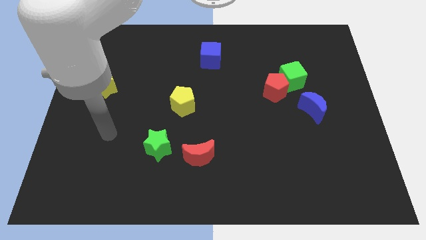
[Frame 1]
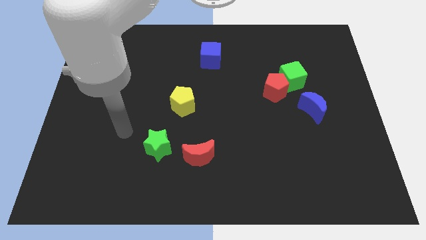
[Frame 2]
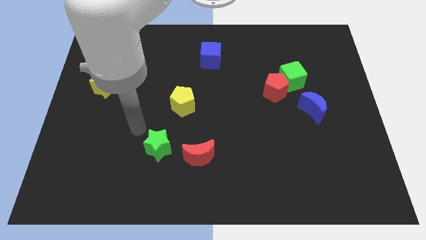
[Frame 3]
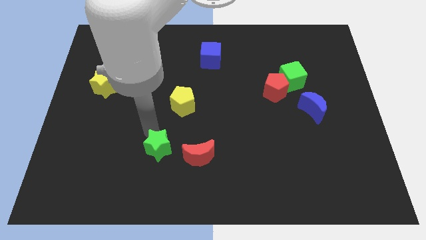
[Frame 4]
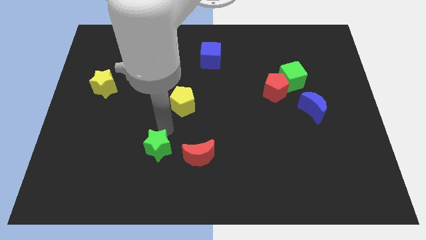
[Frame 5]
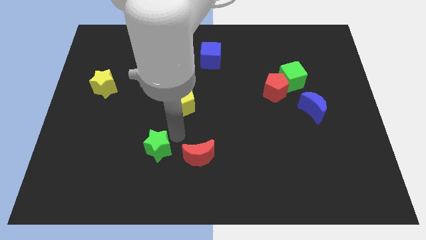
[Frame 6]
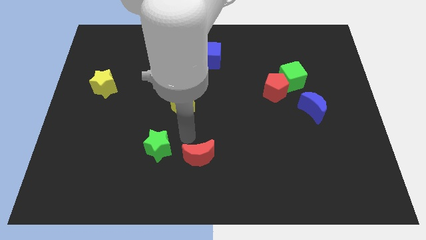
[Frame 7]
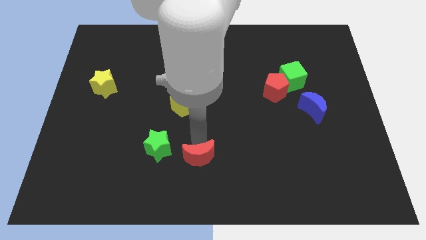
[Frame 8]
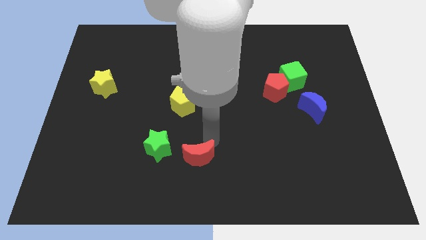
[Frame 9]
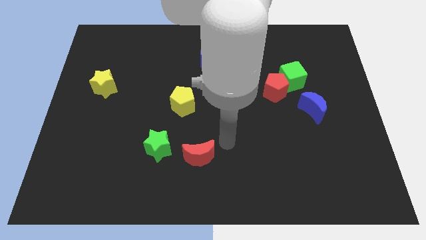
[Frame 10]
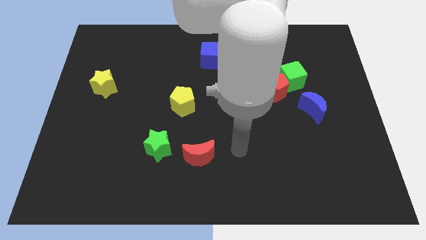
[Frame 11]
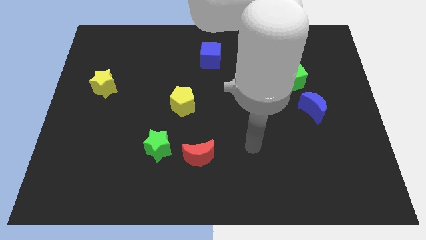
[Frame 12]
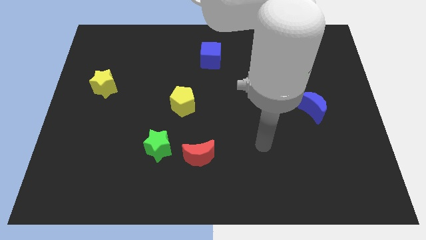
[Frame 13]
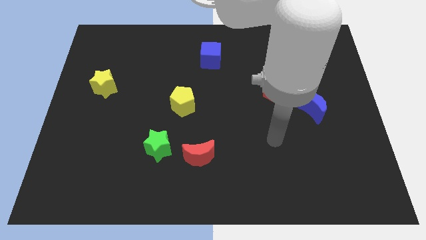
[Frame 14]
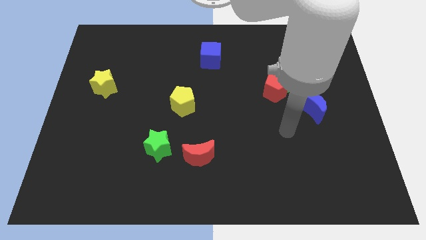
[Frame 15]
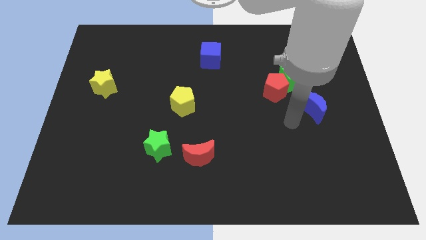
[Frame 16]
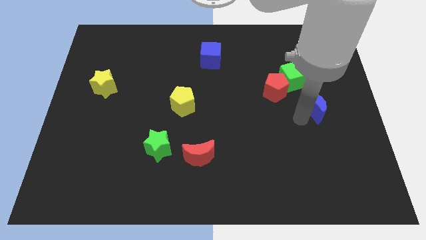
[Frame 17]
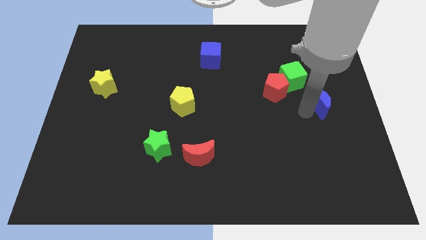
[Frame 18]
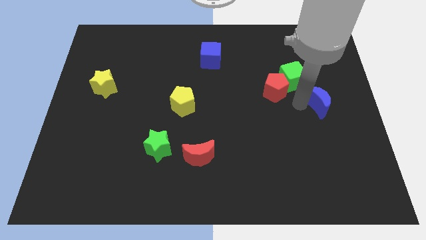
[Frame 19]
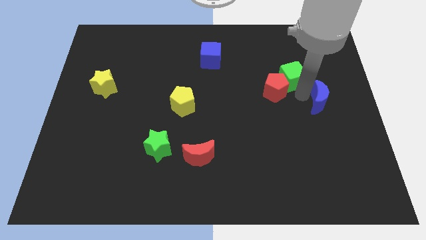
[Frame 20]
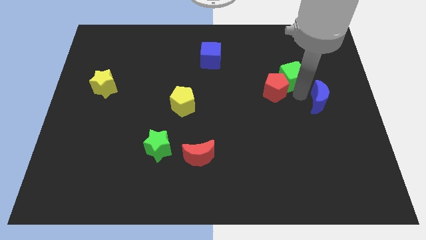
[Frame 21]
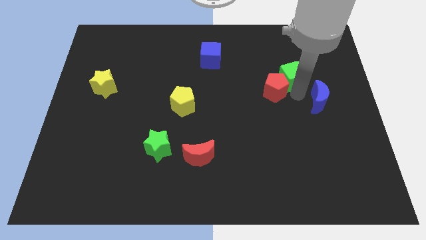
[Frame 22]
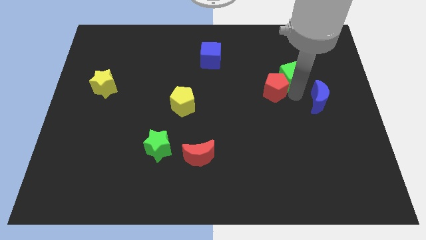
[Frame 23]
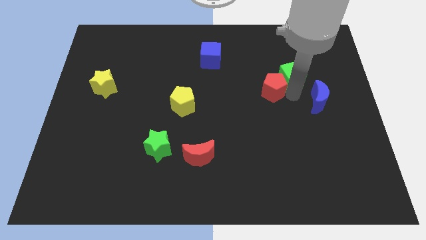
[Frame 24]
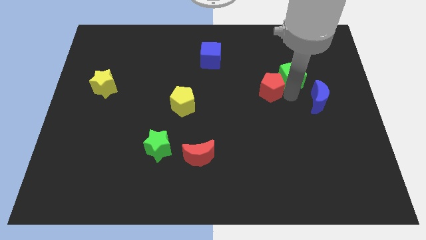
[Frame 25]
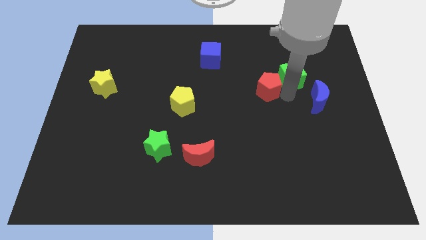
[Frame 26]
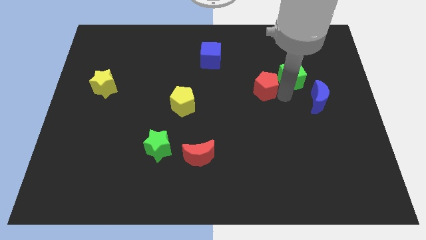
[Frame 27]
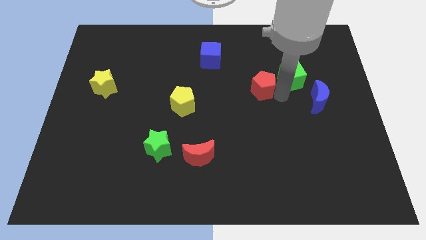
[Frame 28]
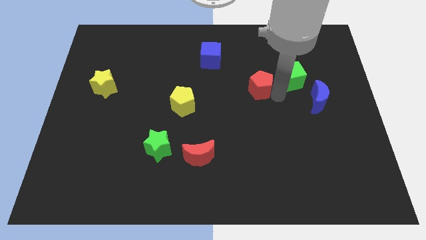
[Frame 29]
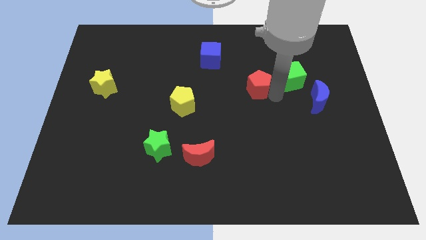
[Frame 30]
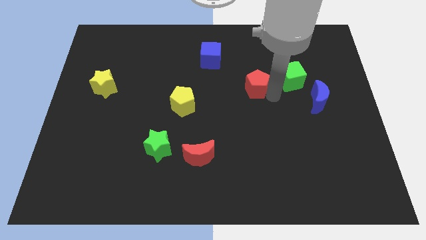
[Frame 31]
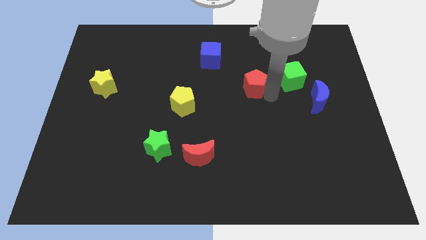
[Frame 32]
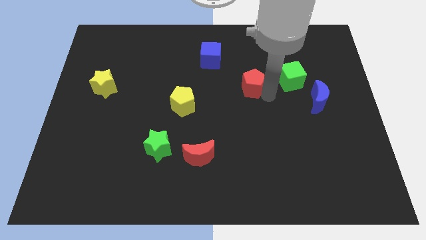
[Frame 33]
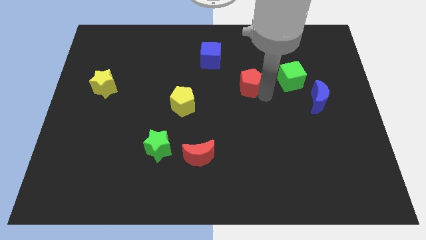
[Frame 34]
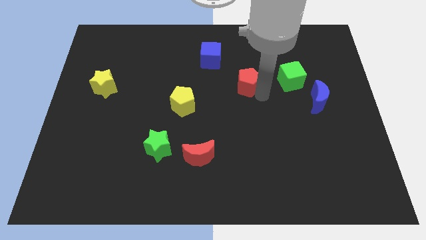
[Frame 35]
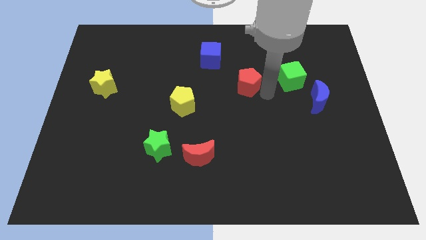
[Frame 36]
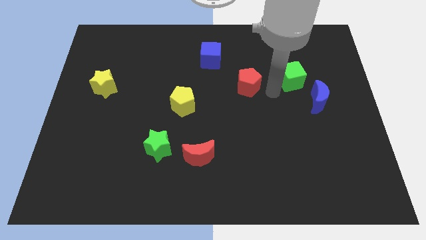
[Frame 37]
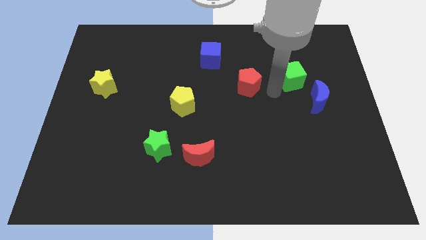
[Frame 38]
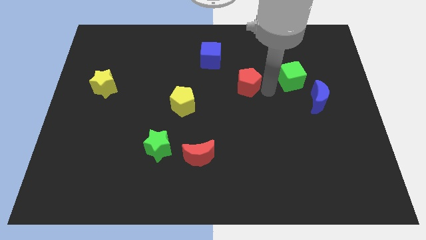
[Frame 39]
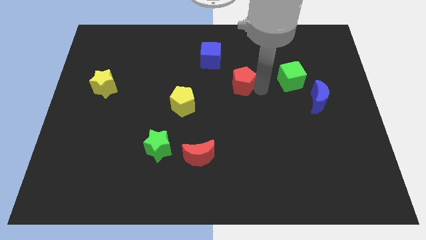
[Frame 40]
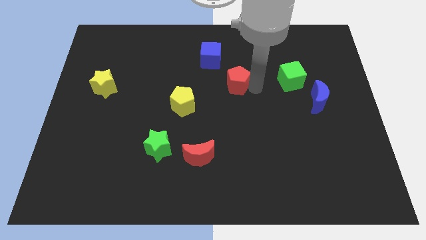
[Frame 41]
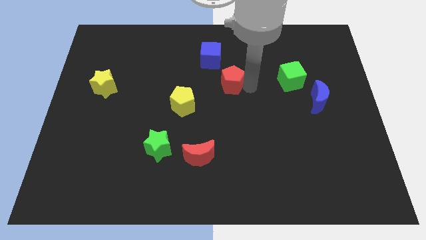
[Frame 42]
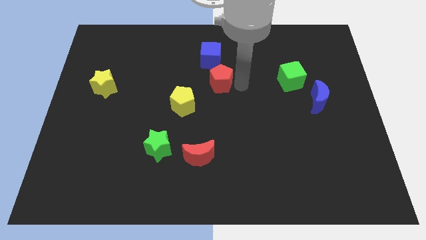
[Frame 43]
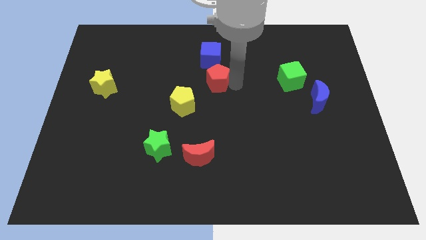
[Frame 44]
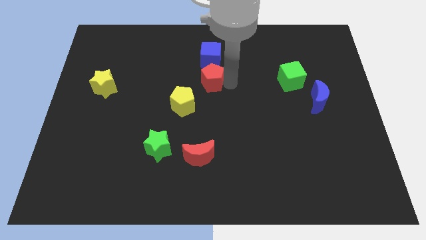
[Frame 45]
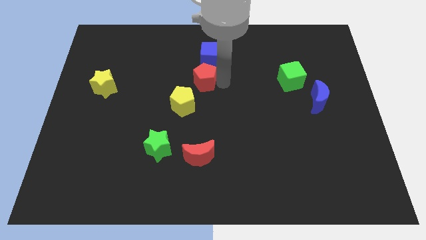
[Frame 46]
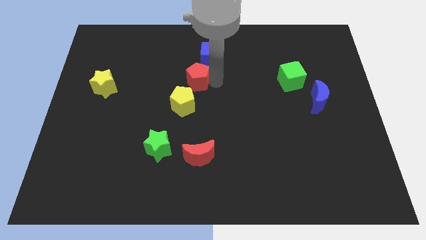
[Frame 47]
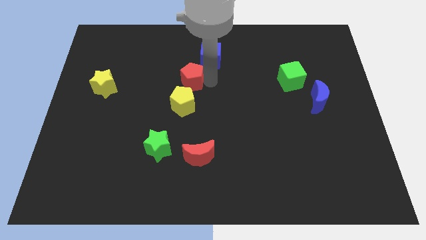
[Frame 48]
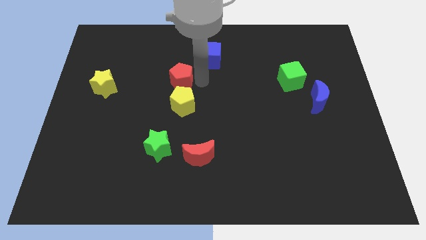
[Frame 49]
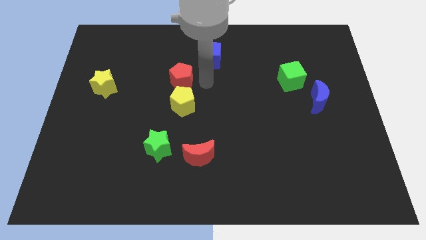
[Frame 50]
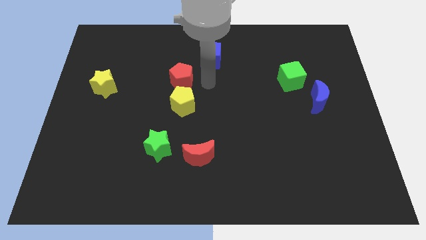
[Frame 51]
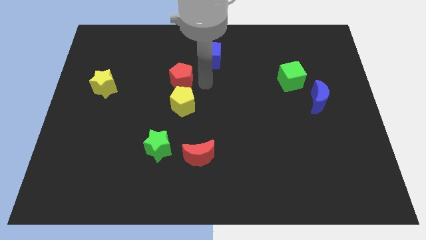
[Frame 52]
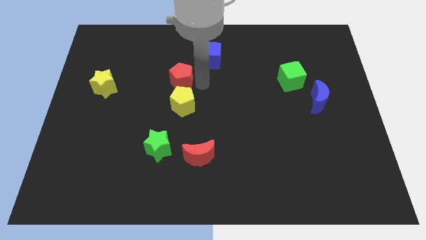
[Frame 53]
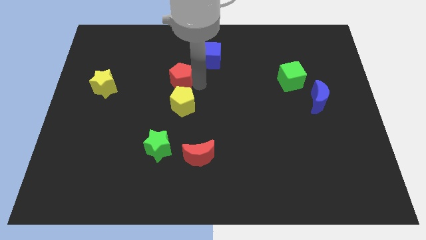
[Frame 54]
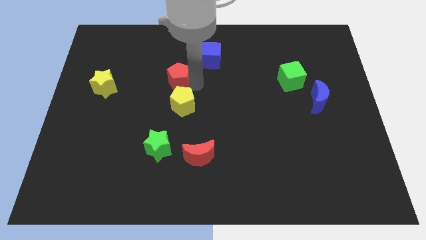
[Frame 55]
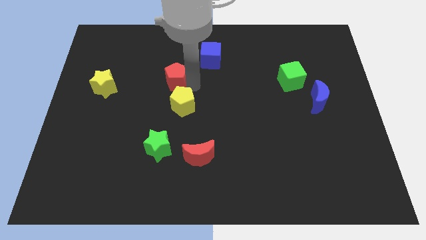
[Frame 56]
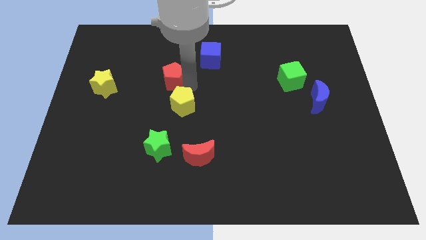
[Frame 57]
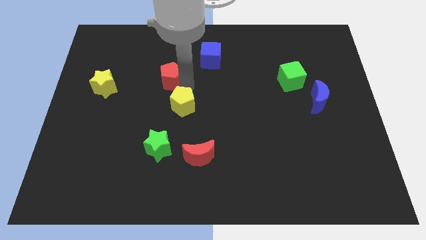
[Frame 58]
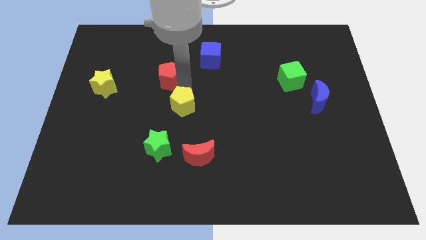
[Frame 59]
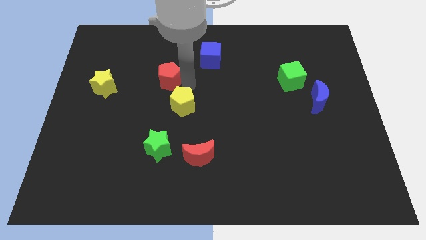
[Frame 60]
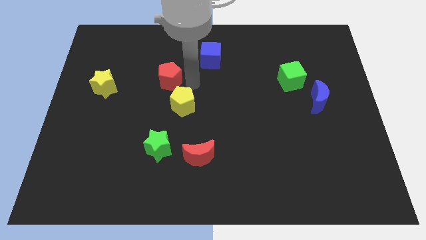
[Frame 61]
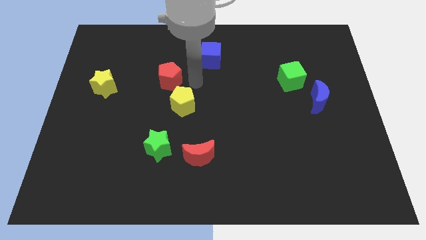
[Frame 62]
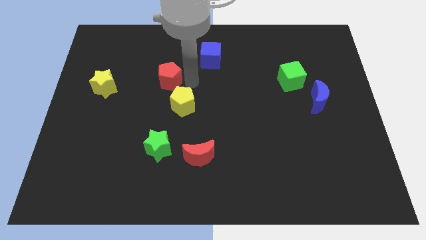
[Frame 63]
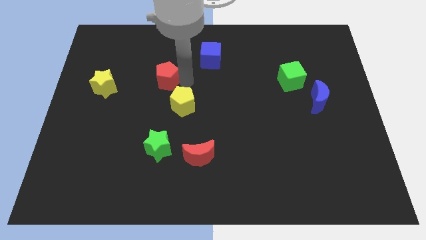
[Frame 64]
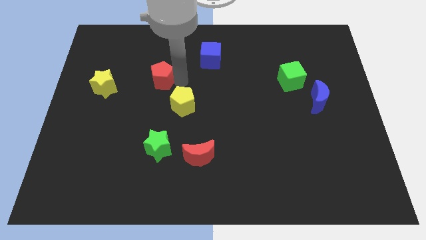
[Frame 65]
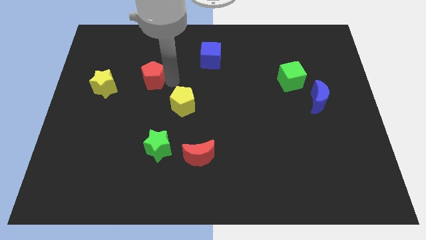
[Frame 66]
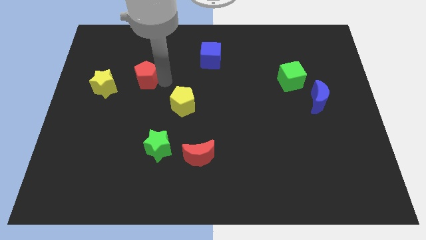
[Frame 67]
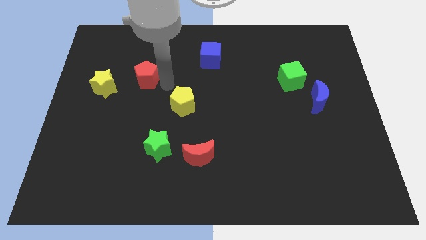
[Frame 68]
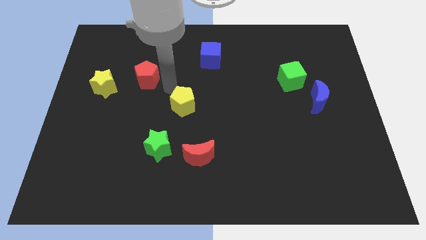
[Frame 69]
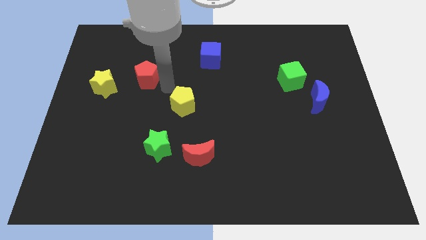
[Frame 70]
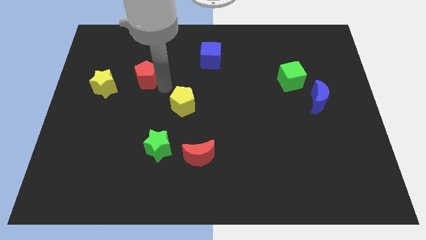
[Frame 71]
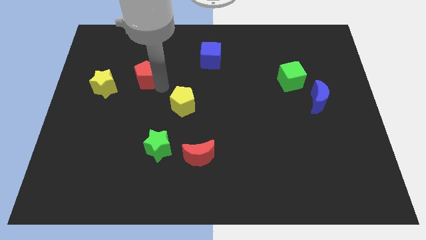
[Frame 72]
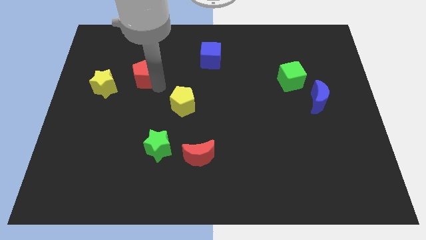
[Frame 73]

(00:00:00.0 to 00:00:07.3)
move the red pentagon to the top right side of the yellow star

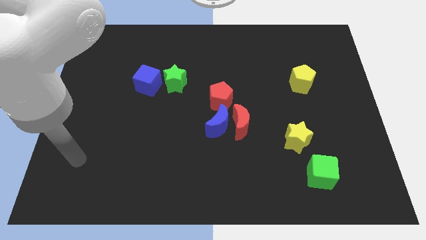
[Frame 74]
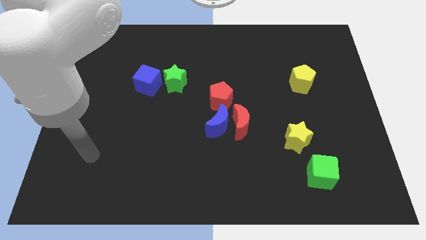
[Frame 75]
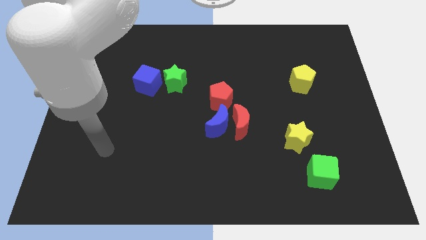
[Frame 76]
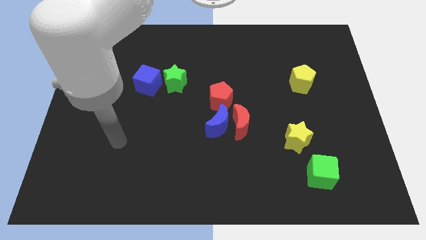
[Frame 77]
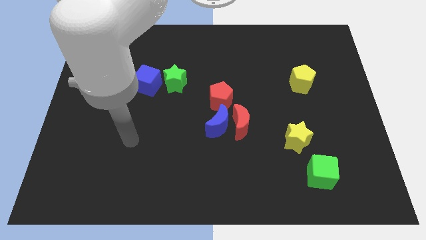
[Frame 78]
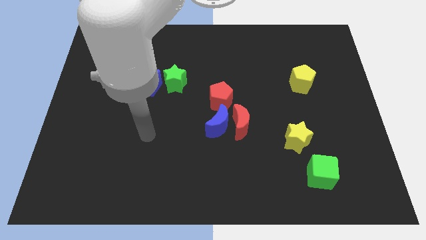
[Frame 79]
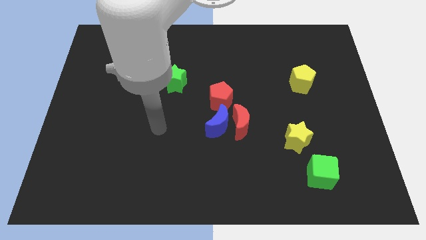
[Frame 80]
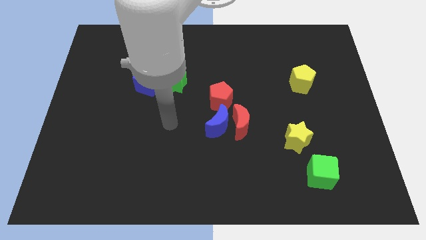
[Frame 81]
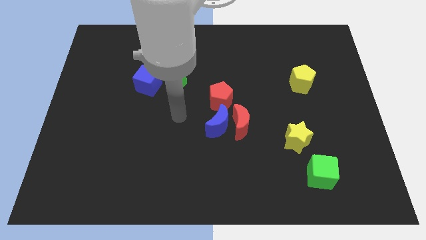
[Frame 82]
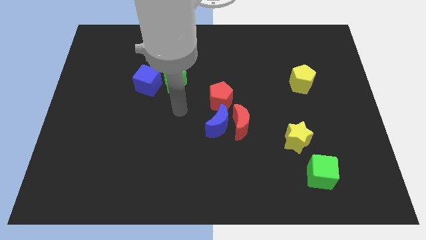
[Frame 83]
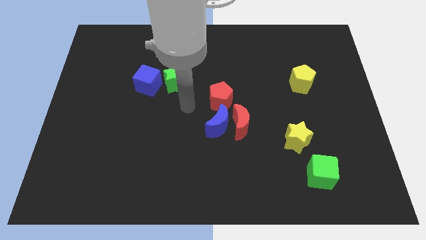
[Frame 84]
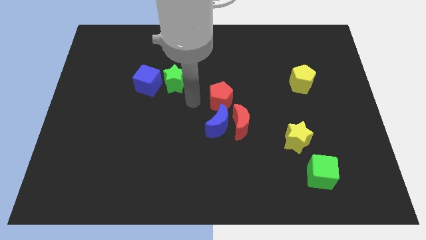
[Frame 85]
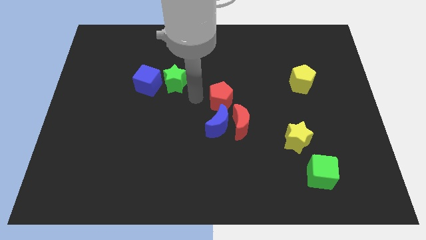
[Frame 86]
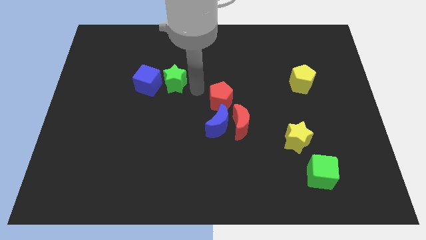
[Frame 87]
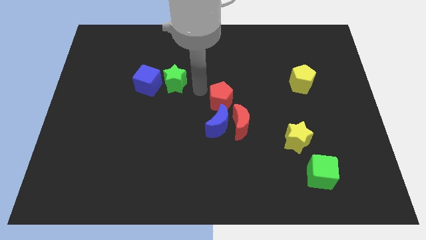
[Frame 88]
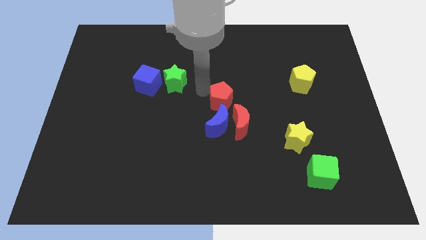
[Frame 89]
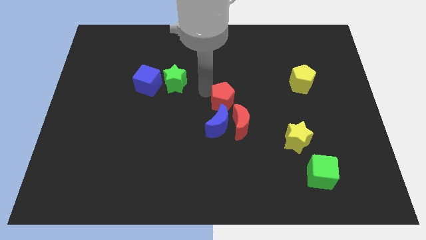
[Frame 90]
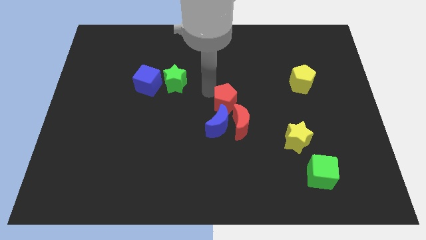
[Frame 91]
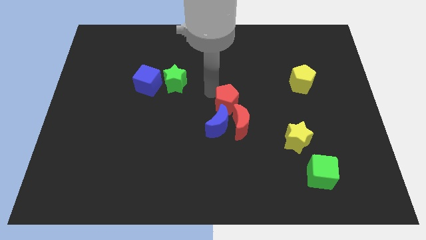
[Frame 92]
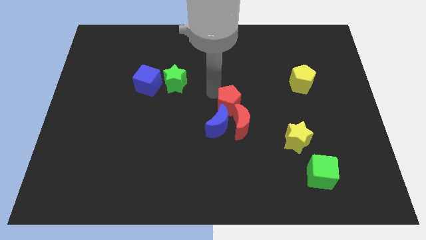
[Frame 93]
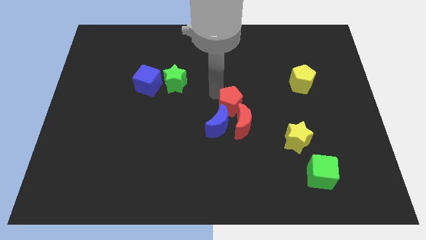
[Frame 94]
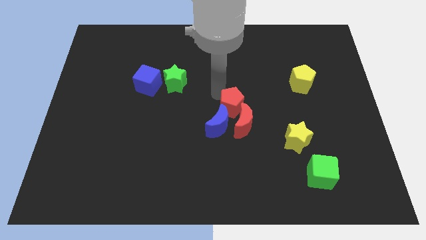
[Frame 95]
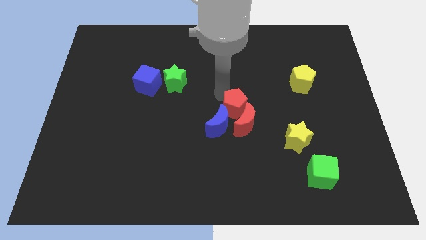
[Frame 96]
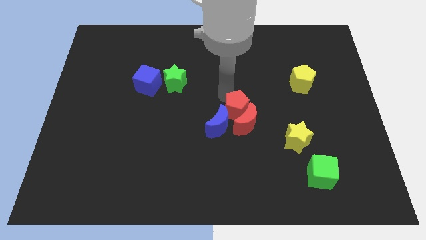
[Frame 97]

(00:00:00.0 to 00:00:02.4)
slide the red pentagon right of the blue moon
